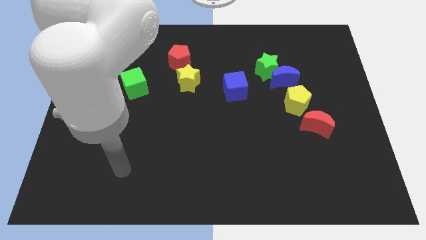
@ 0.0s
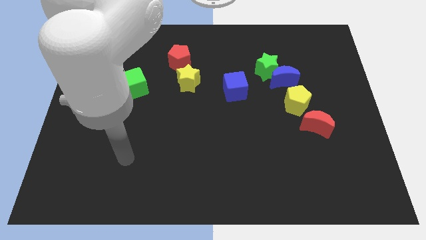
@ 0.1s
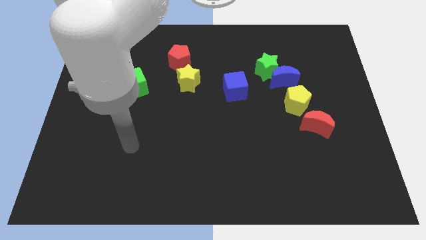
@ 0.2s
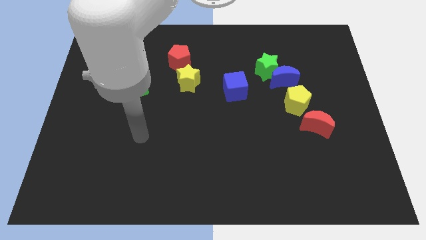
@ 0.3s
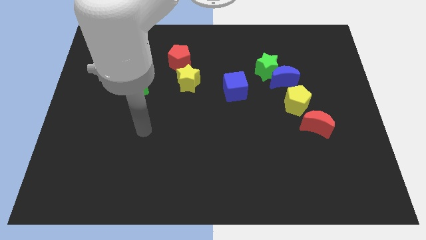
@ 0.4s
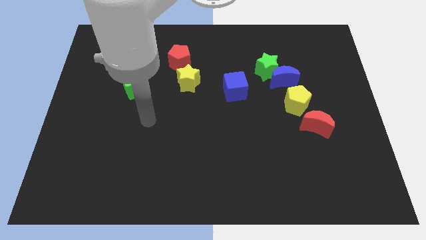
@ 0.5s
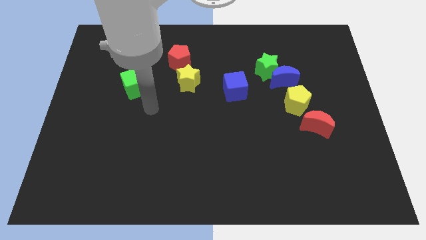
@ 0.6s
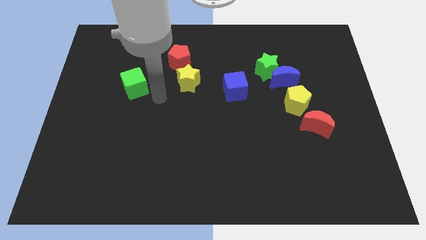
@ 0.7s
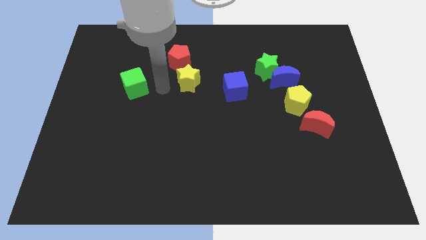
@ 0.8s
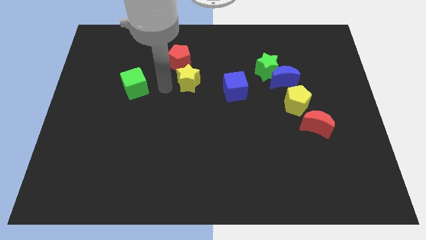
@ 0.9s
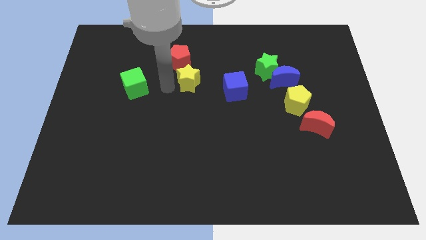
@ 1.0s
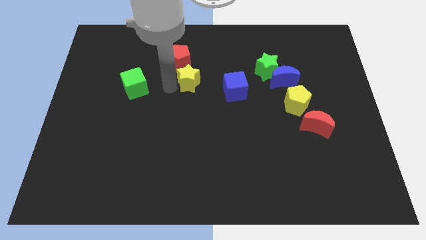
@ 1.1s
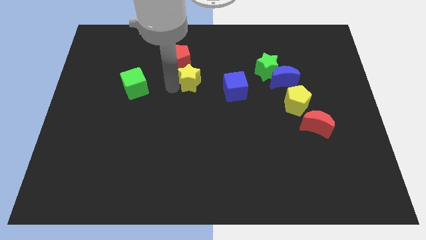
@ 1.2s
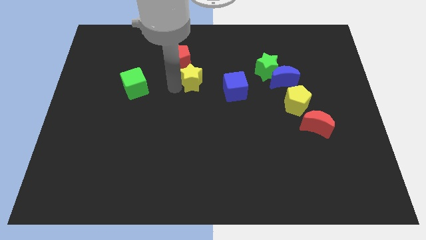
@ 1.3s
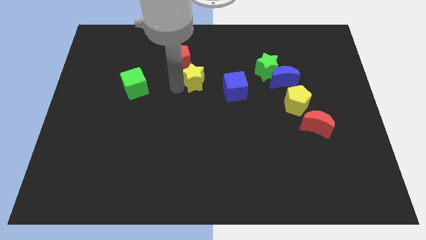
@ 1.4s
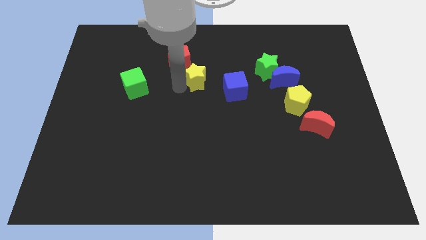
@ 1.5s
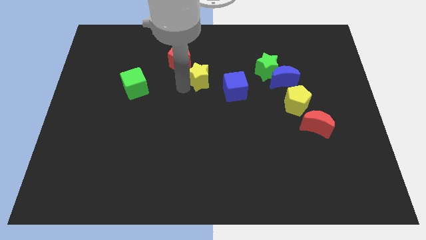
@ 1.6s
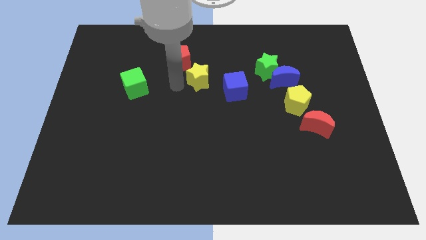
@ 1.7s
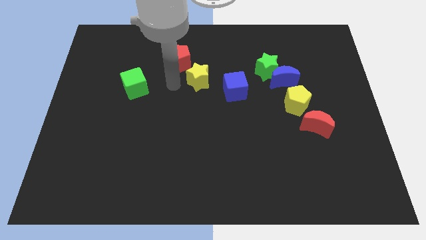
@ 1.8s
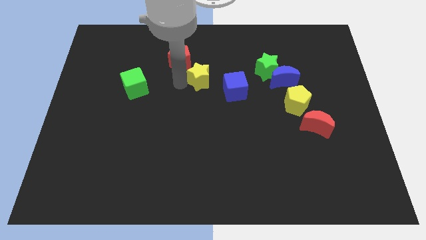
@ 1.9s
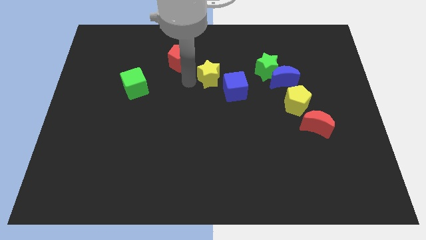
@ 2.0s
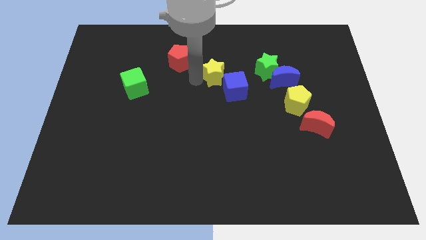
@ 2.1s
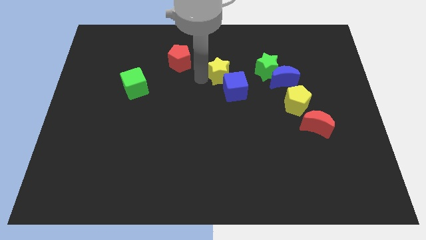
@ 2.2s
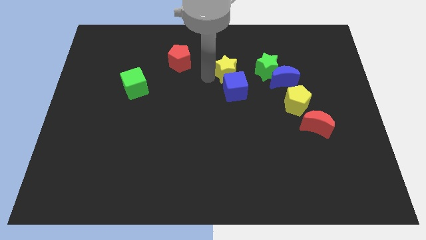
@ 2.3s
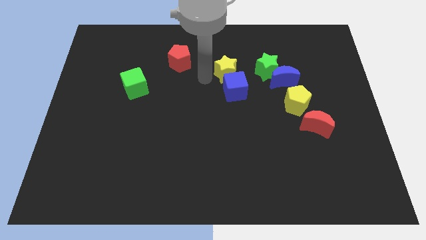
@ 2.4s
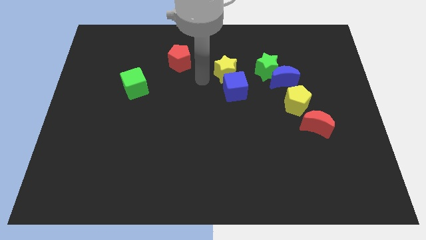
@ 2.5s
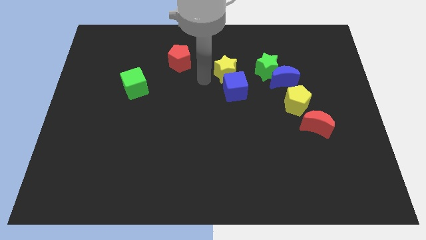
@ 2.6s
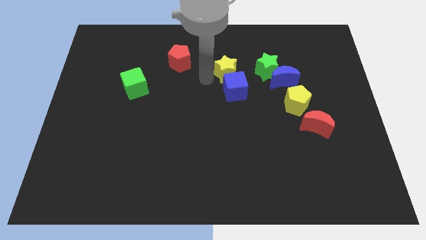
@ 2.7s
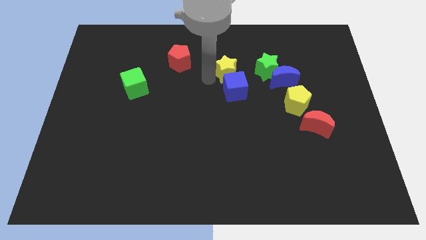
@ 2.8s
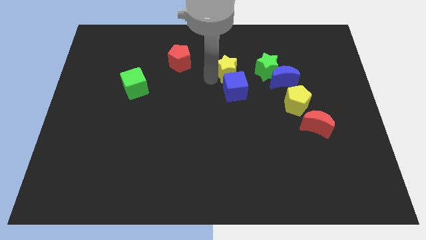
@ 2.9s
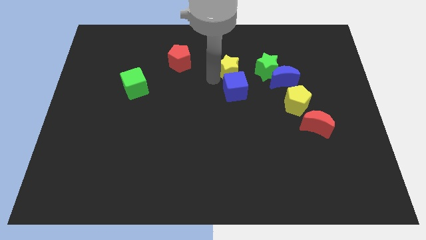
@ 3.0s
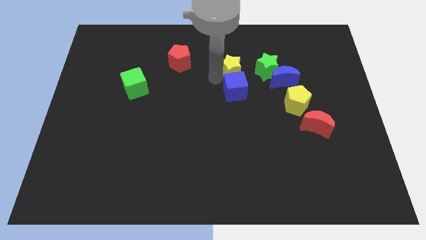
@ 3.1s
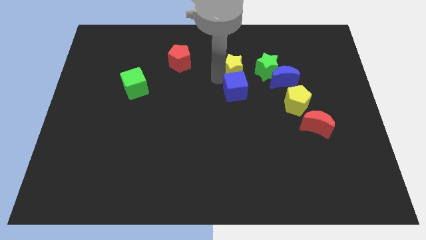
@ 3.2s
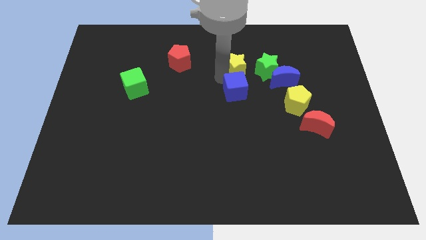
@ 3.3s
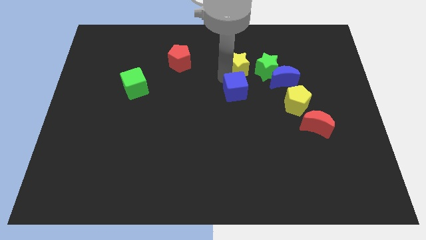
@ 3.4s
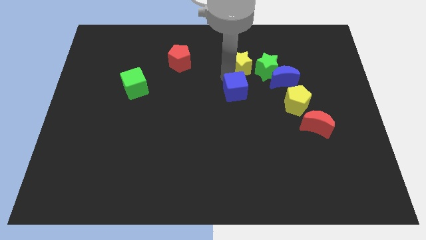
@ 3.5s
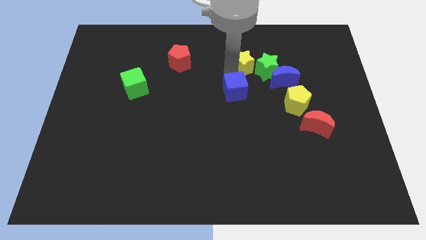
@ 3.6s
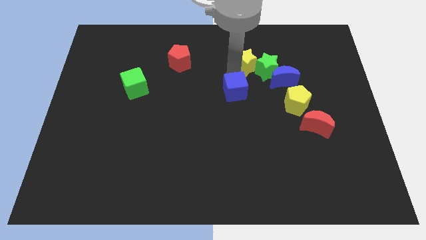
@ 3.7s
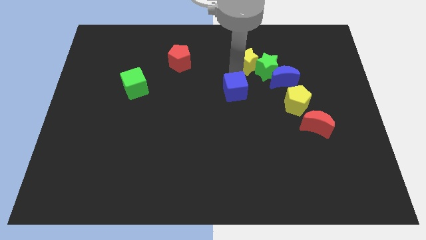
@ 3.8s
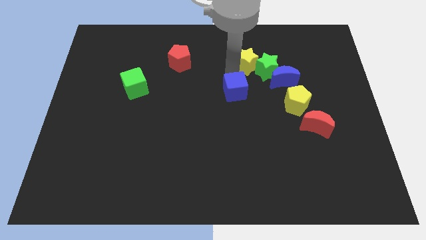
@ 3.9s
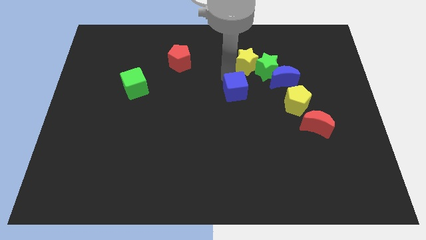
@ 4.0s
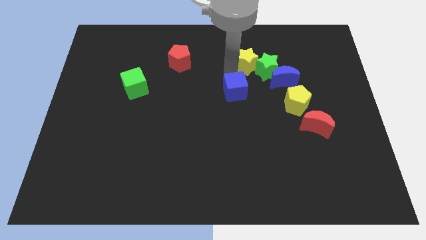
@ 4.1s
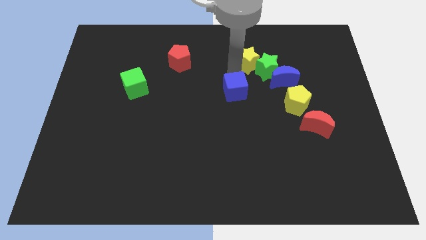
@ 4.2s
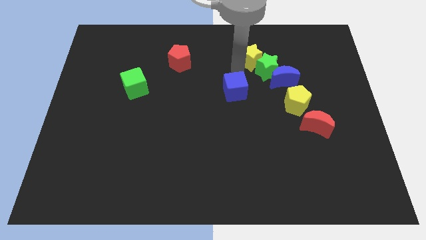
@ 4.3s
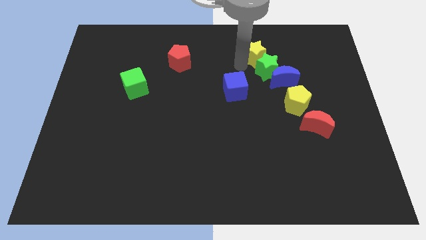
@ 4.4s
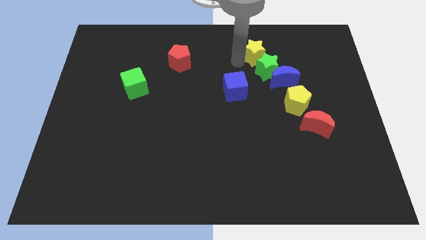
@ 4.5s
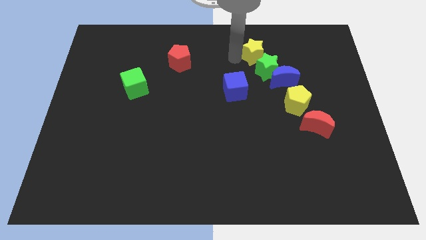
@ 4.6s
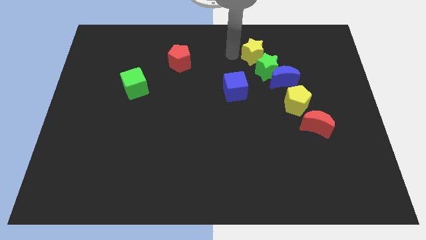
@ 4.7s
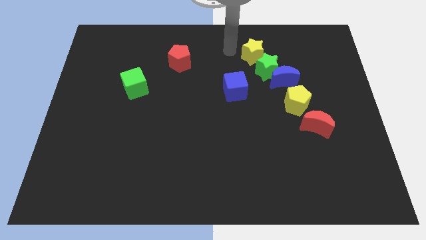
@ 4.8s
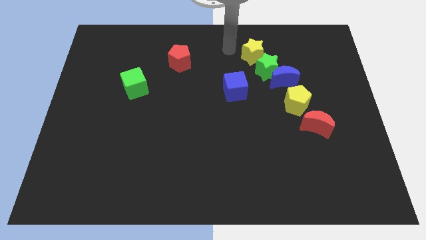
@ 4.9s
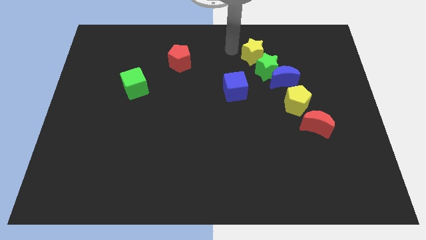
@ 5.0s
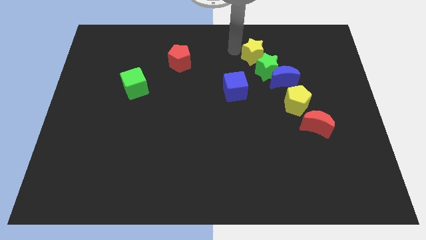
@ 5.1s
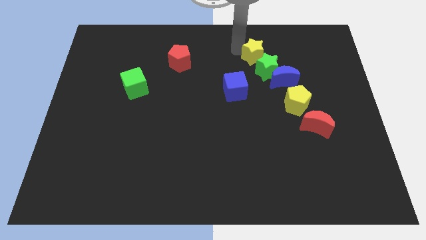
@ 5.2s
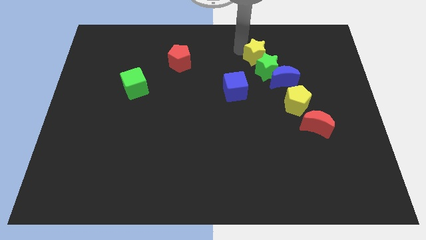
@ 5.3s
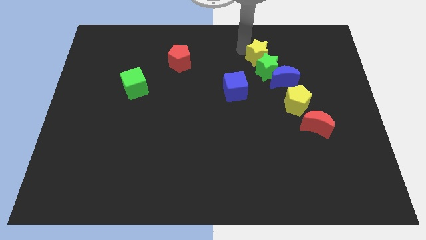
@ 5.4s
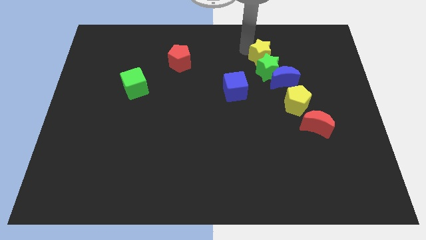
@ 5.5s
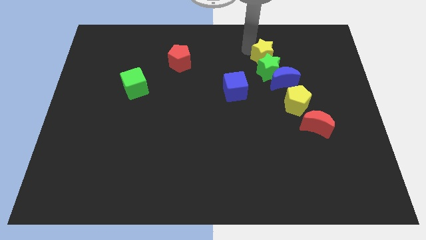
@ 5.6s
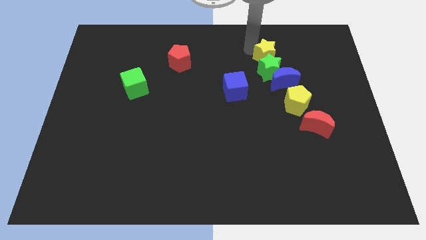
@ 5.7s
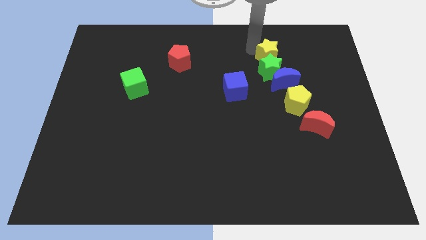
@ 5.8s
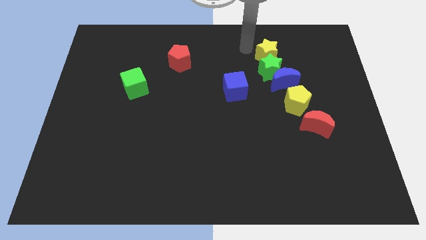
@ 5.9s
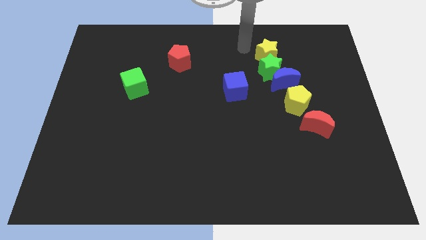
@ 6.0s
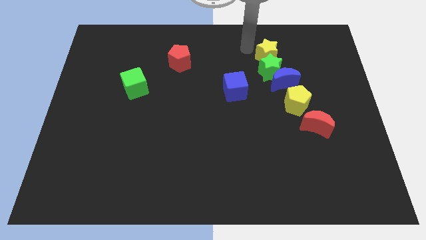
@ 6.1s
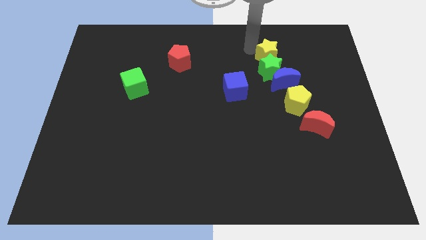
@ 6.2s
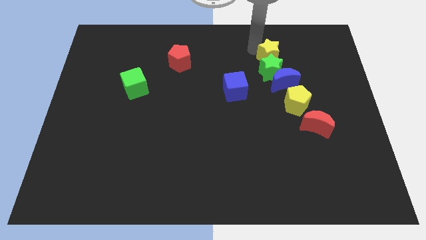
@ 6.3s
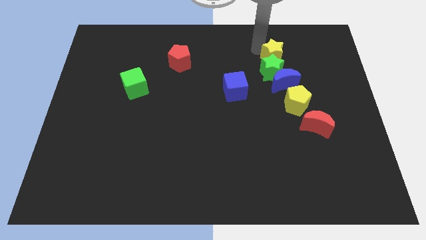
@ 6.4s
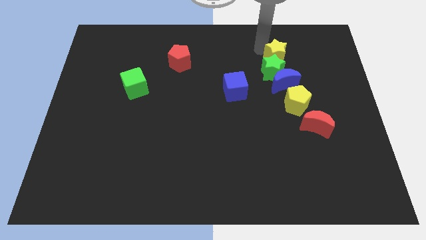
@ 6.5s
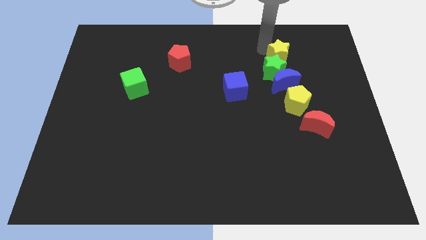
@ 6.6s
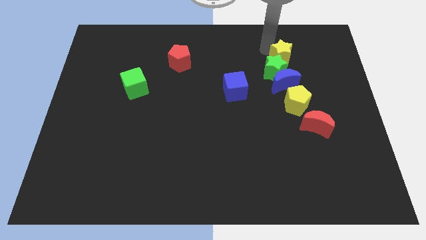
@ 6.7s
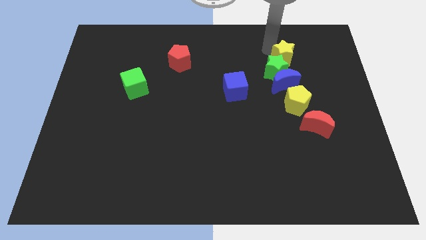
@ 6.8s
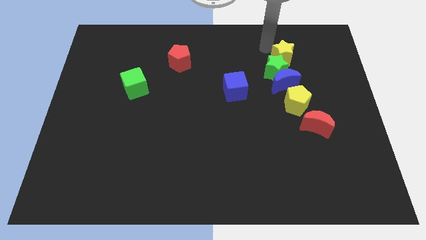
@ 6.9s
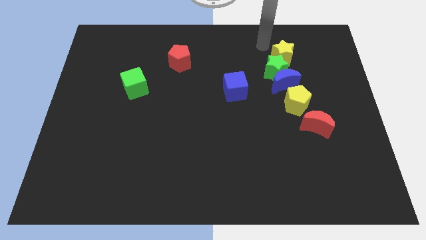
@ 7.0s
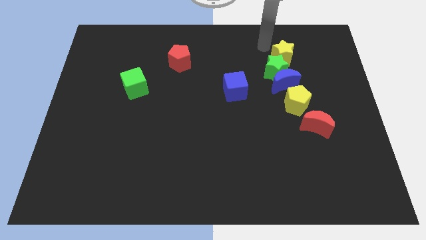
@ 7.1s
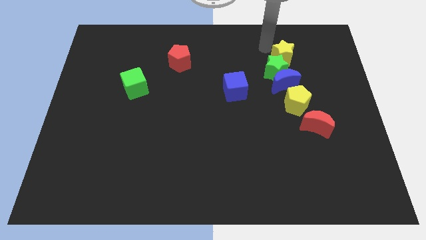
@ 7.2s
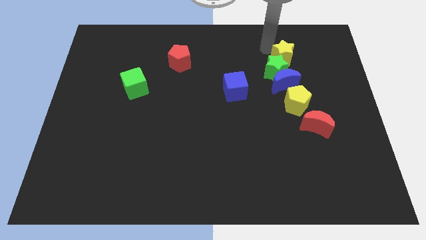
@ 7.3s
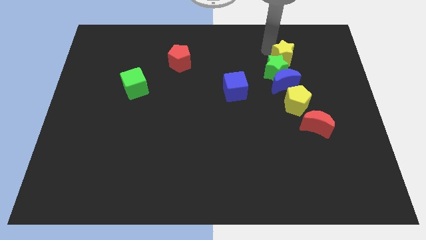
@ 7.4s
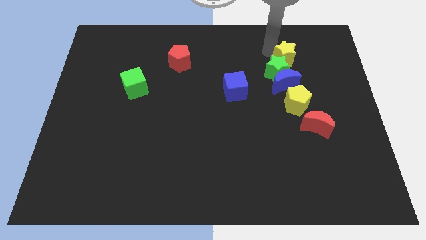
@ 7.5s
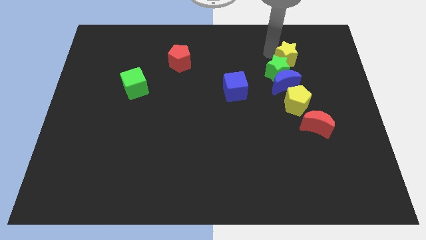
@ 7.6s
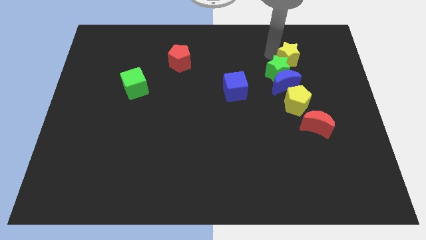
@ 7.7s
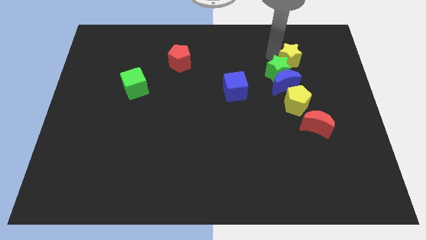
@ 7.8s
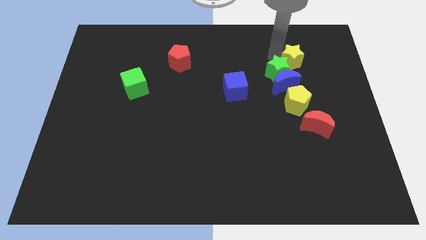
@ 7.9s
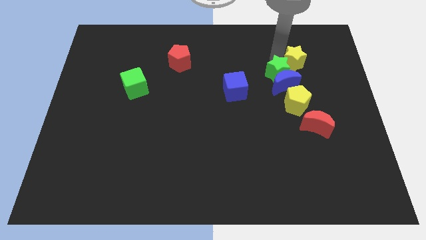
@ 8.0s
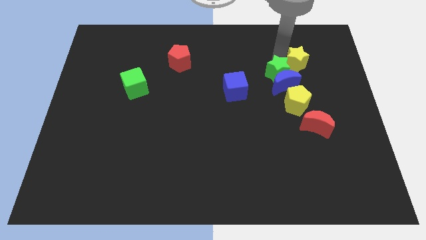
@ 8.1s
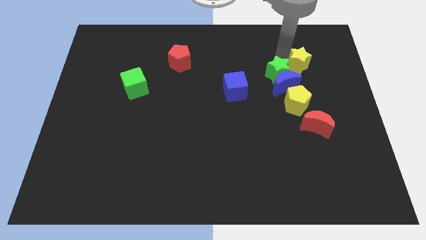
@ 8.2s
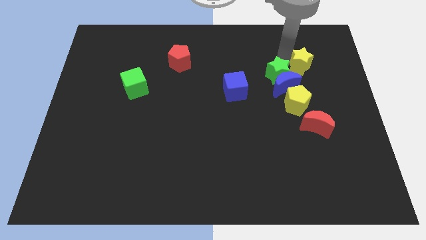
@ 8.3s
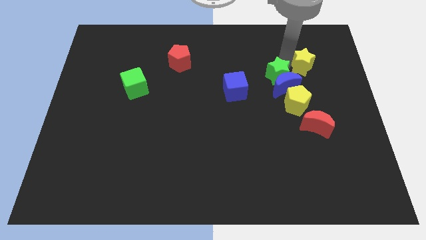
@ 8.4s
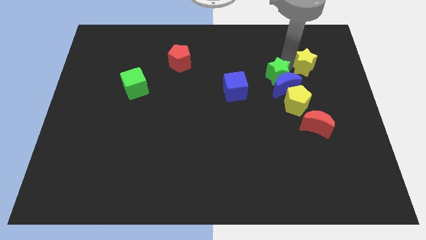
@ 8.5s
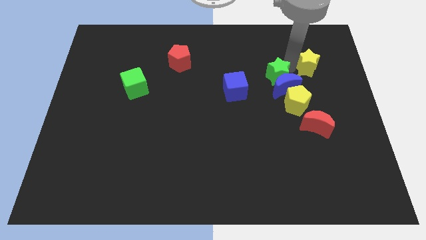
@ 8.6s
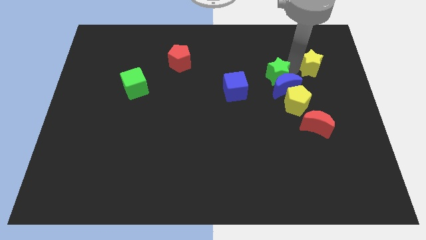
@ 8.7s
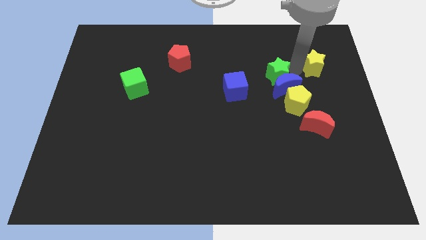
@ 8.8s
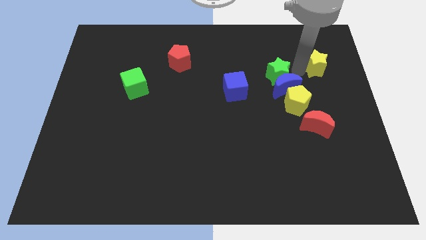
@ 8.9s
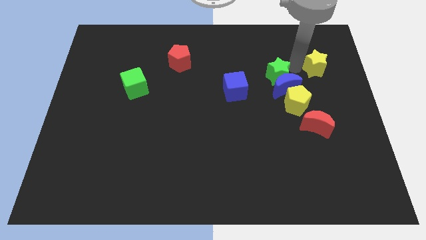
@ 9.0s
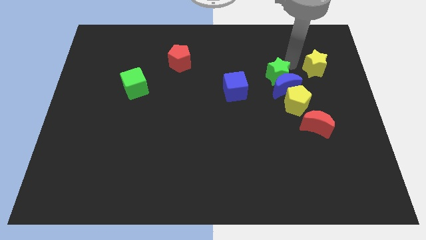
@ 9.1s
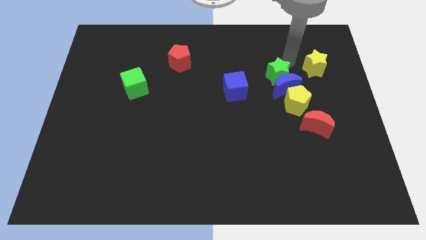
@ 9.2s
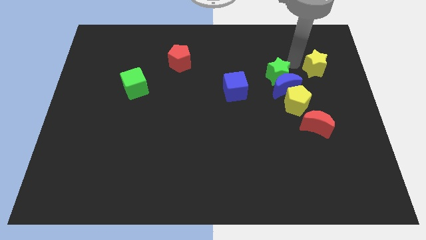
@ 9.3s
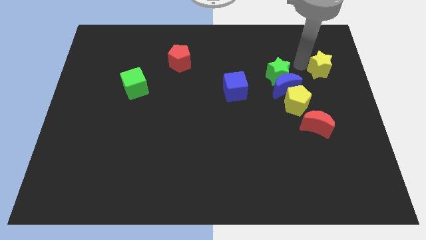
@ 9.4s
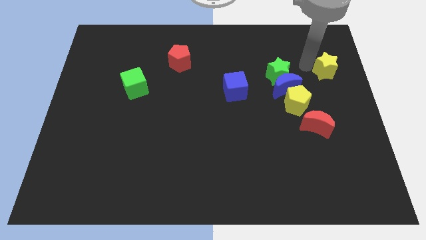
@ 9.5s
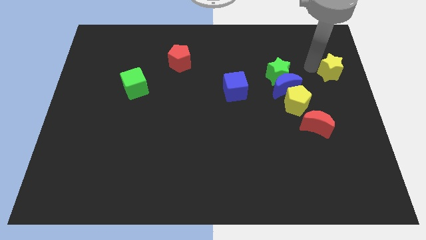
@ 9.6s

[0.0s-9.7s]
push the yellow star to the center right
